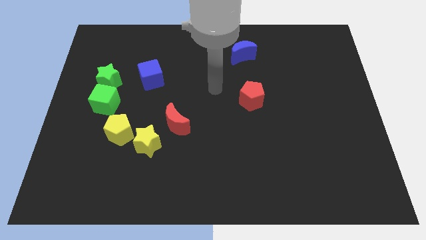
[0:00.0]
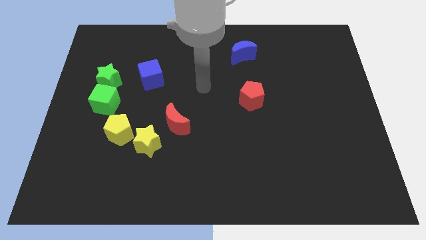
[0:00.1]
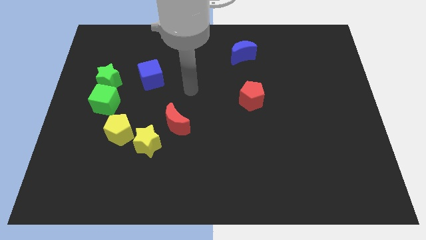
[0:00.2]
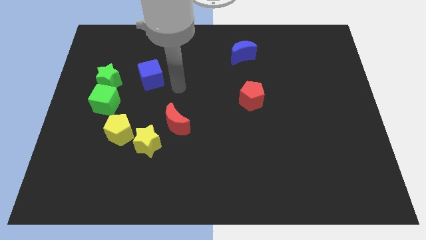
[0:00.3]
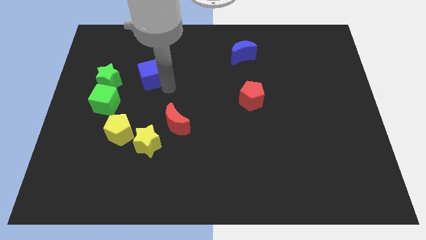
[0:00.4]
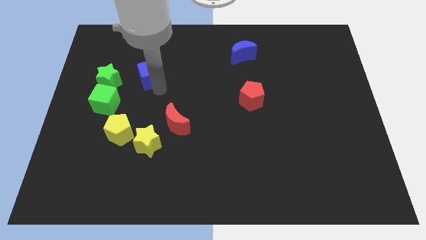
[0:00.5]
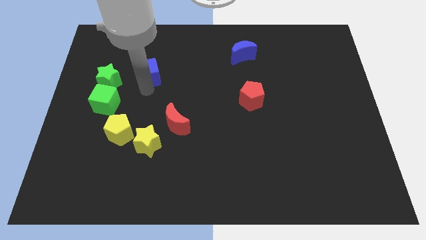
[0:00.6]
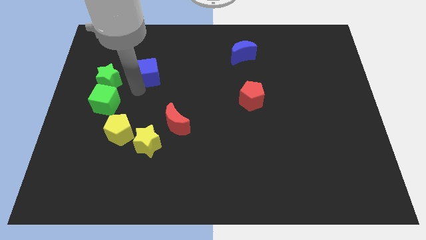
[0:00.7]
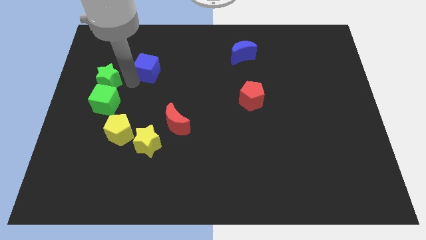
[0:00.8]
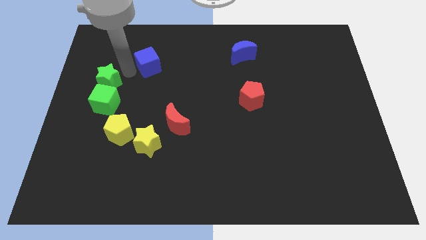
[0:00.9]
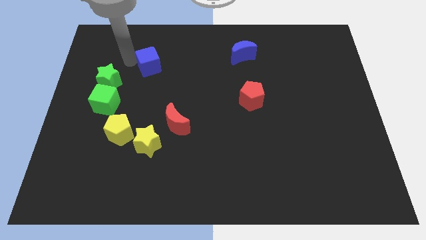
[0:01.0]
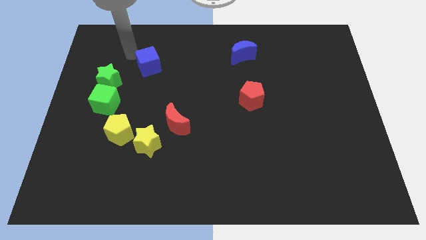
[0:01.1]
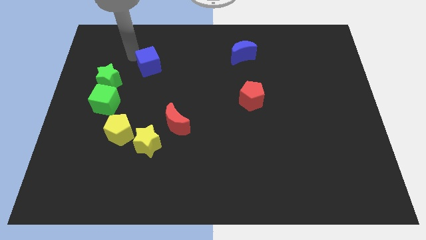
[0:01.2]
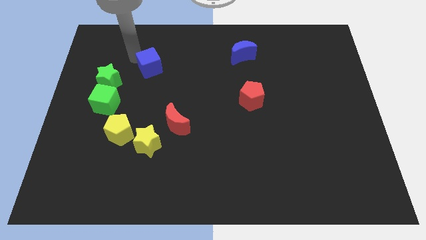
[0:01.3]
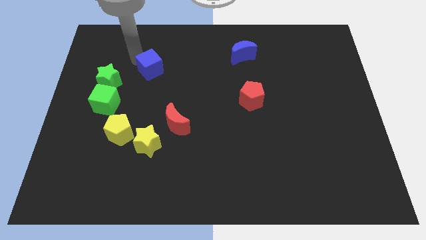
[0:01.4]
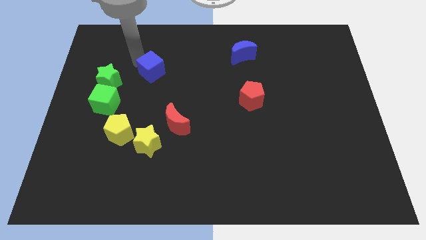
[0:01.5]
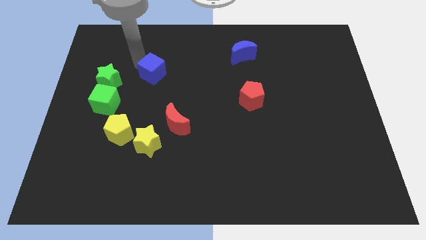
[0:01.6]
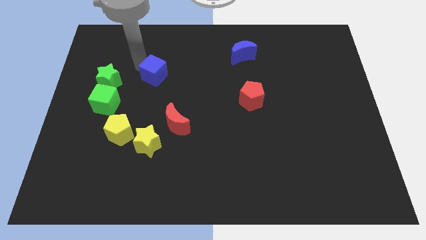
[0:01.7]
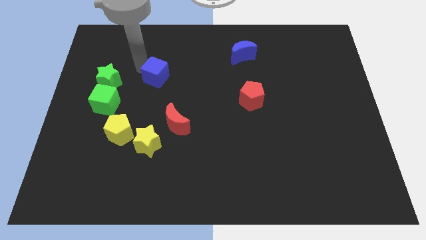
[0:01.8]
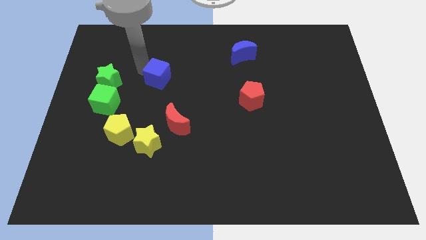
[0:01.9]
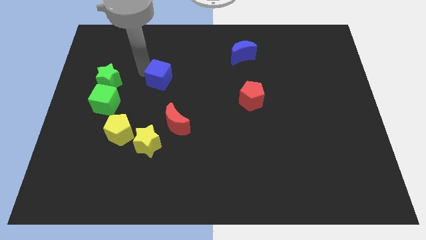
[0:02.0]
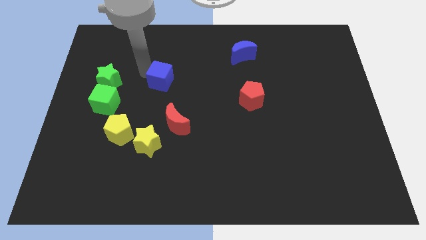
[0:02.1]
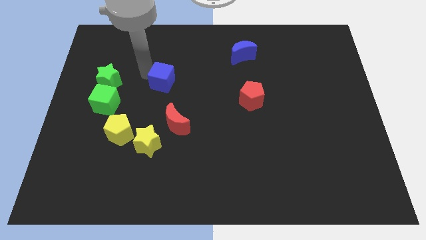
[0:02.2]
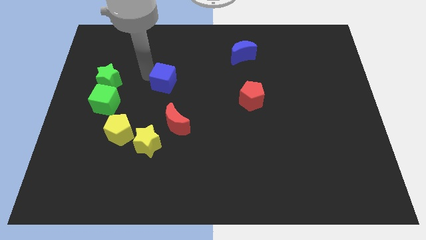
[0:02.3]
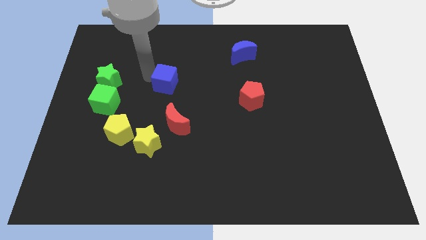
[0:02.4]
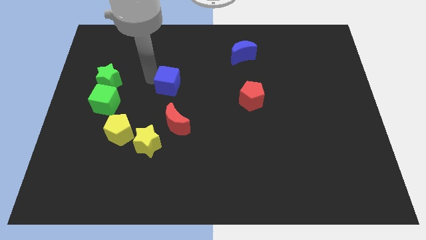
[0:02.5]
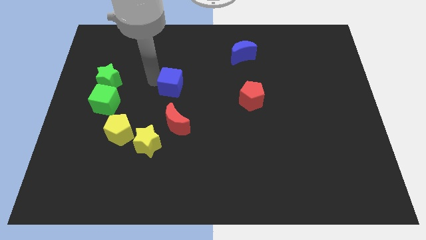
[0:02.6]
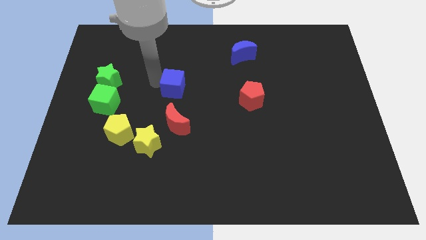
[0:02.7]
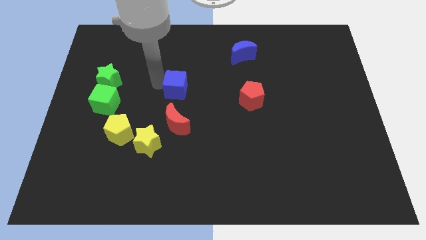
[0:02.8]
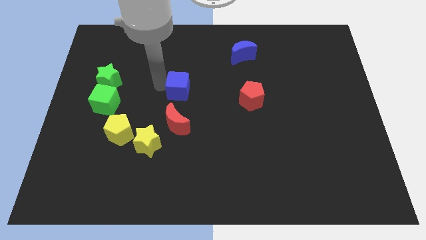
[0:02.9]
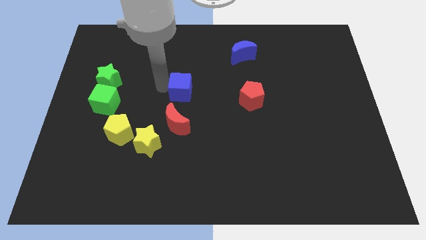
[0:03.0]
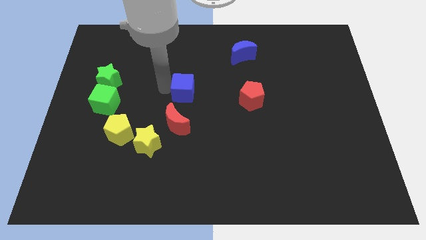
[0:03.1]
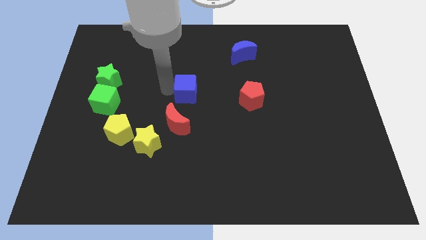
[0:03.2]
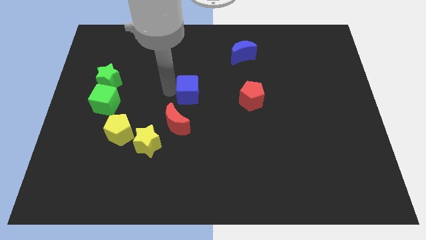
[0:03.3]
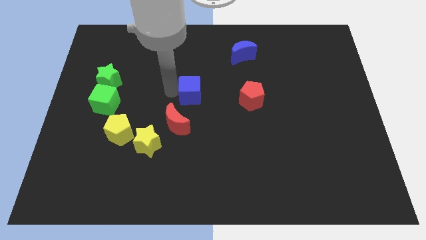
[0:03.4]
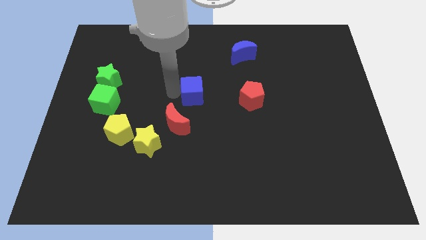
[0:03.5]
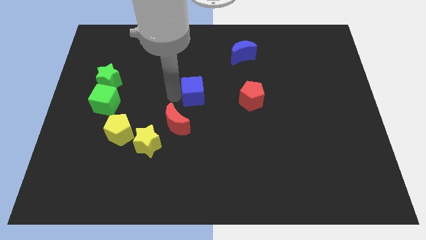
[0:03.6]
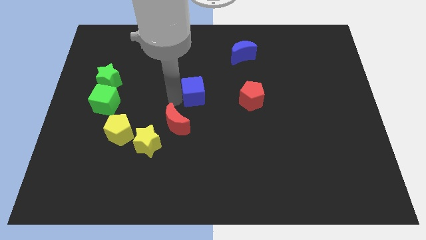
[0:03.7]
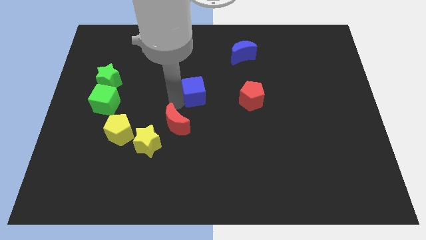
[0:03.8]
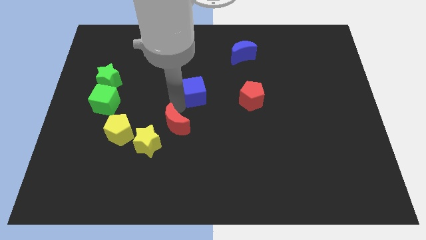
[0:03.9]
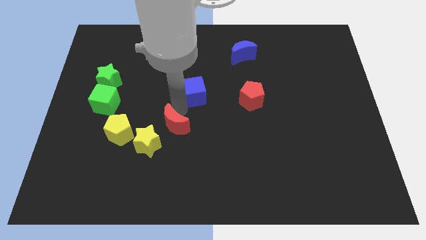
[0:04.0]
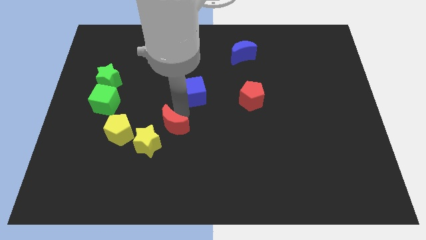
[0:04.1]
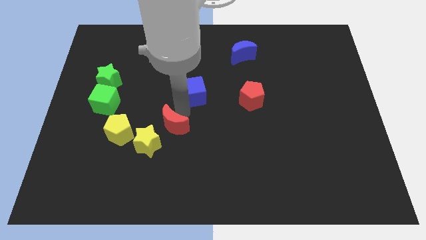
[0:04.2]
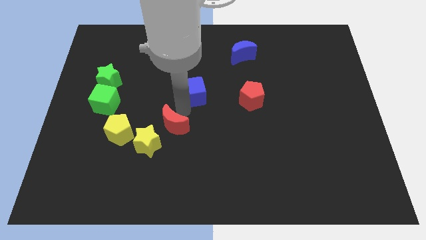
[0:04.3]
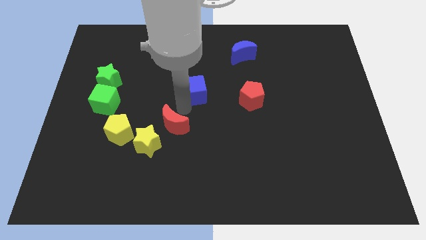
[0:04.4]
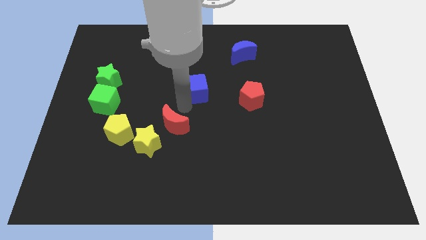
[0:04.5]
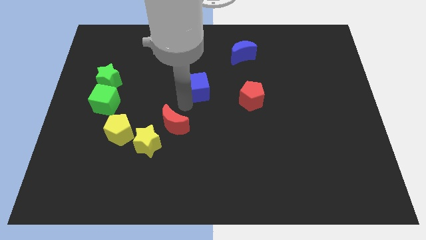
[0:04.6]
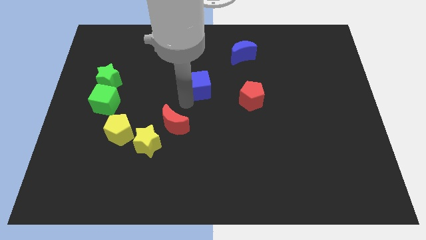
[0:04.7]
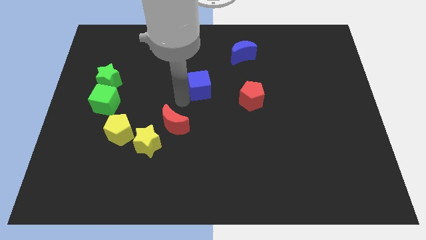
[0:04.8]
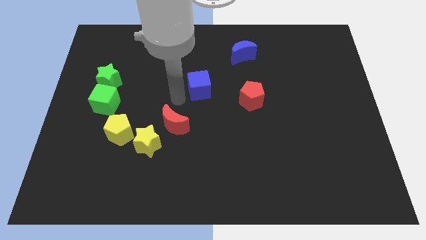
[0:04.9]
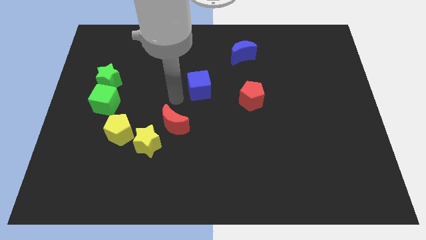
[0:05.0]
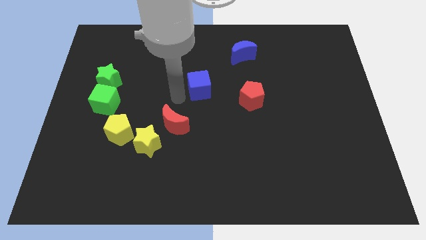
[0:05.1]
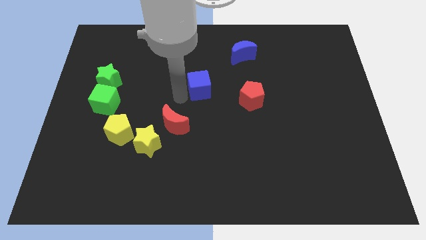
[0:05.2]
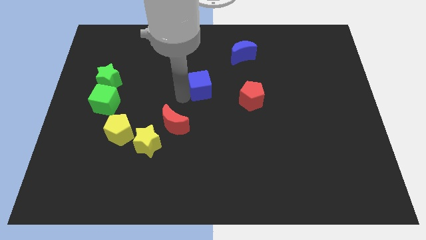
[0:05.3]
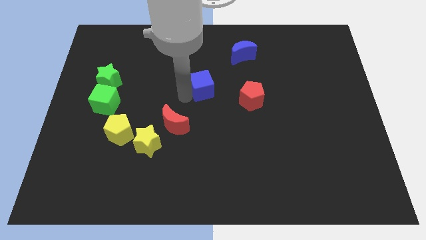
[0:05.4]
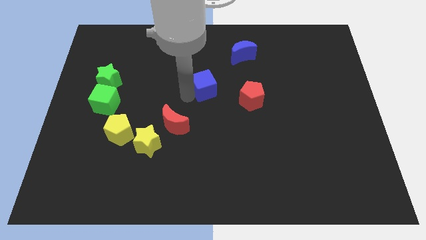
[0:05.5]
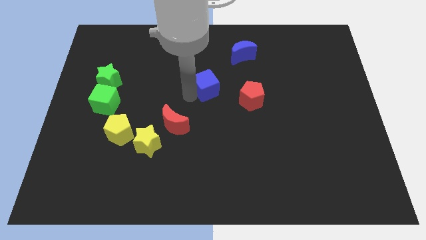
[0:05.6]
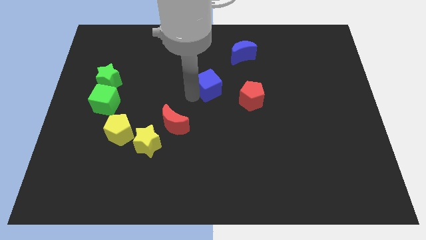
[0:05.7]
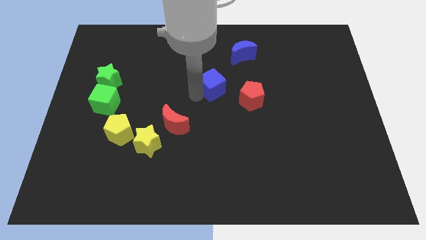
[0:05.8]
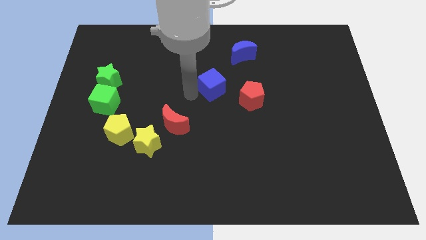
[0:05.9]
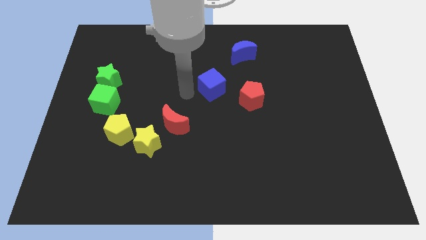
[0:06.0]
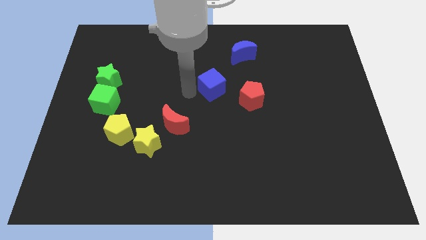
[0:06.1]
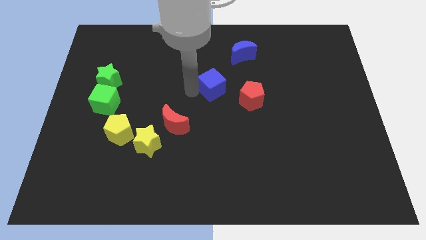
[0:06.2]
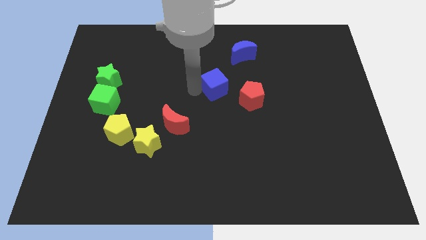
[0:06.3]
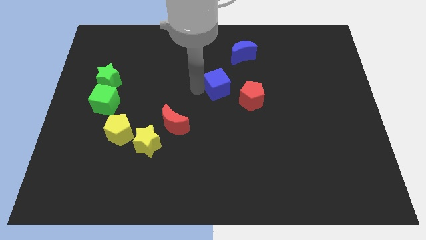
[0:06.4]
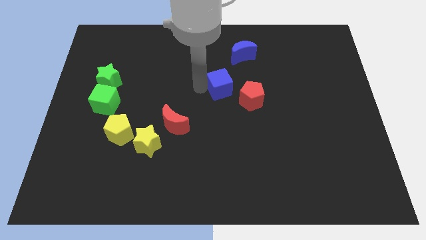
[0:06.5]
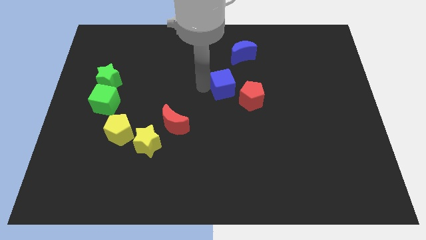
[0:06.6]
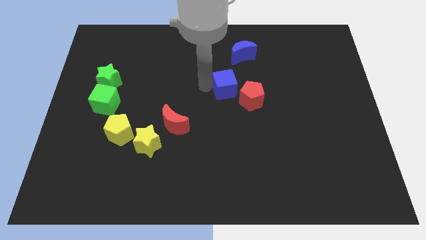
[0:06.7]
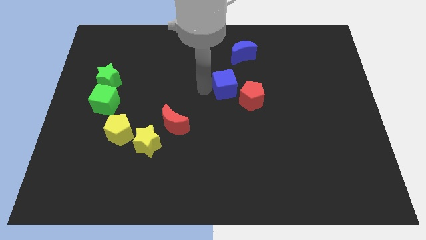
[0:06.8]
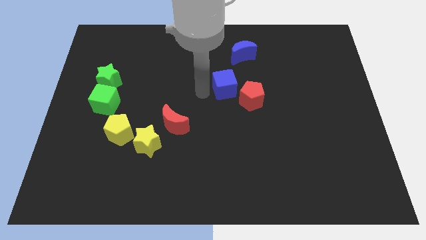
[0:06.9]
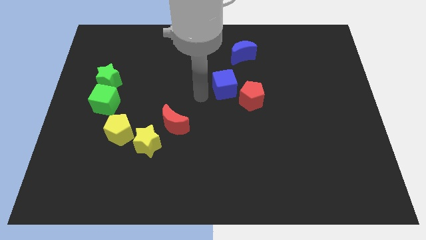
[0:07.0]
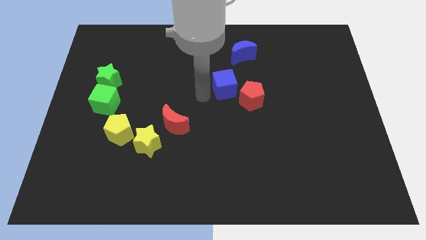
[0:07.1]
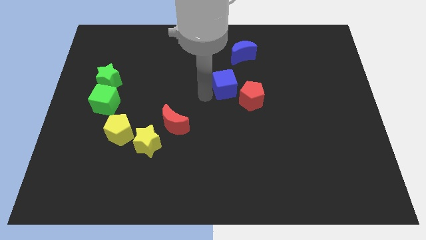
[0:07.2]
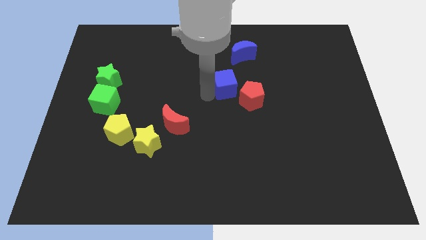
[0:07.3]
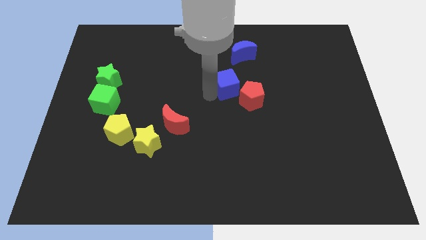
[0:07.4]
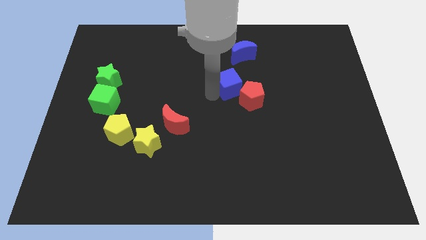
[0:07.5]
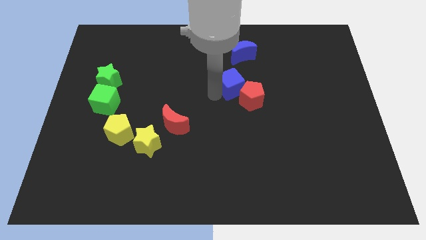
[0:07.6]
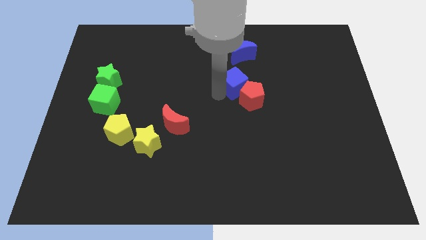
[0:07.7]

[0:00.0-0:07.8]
slide the blue cube right
